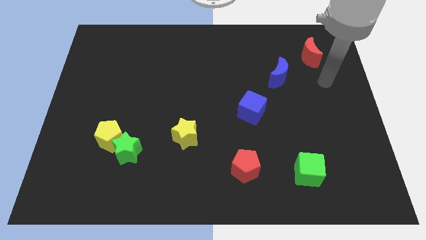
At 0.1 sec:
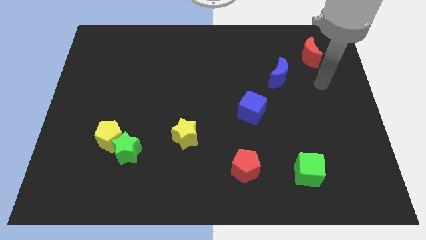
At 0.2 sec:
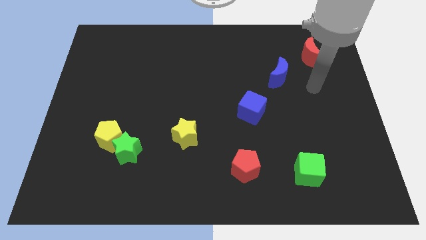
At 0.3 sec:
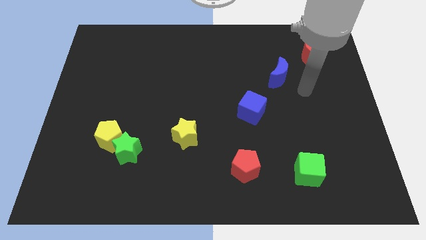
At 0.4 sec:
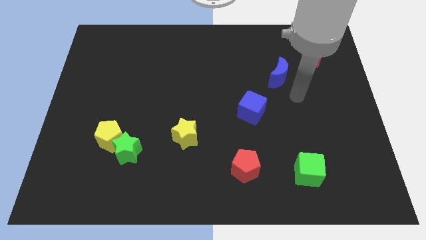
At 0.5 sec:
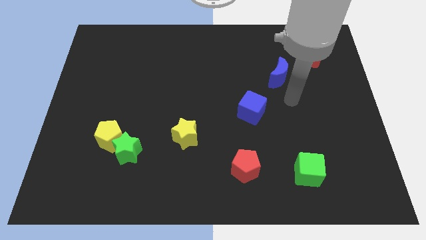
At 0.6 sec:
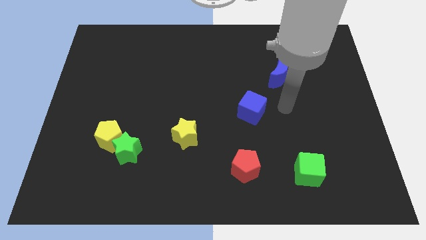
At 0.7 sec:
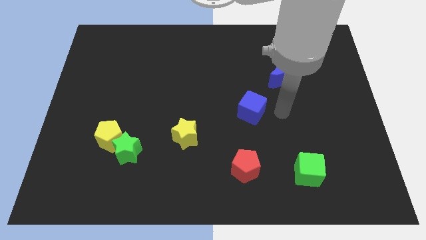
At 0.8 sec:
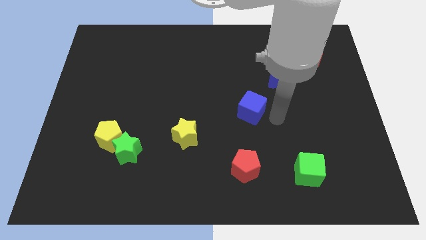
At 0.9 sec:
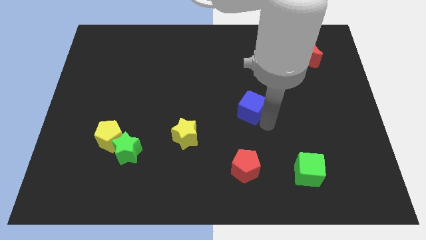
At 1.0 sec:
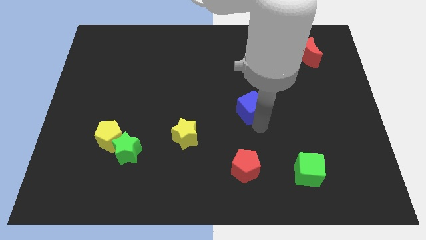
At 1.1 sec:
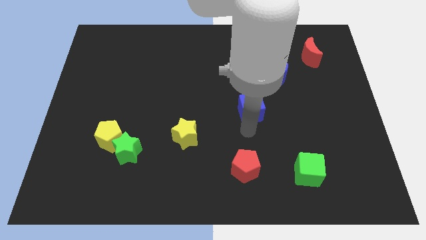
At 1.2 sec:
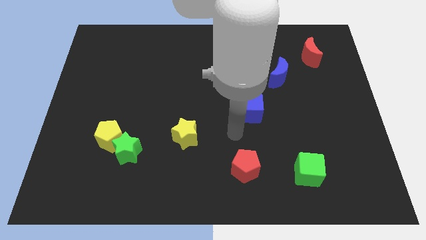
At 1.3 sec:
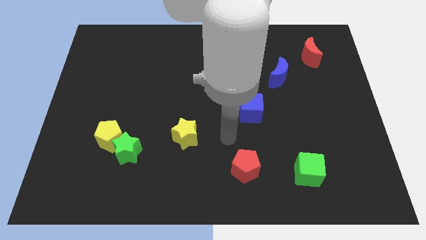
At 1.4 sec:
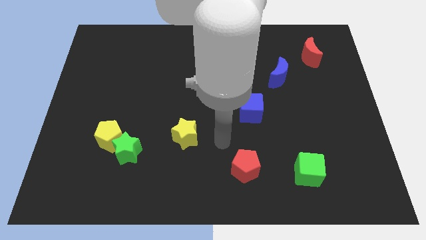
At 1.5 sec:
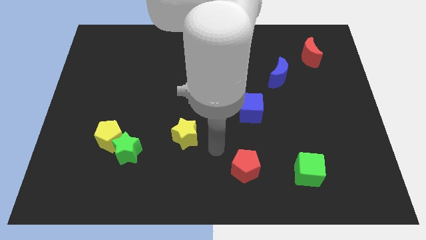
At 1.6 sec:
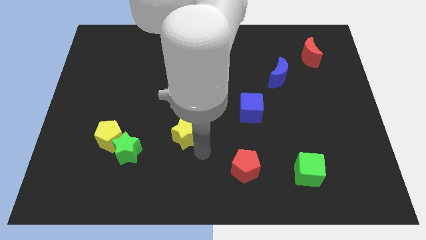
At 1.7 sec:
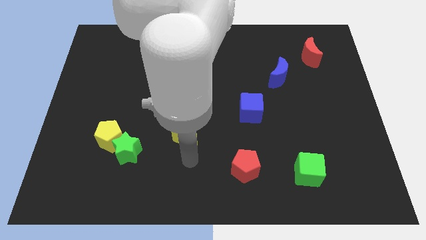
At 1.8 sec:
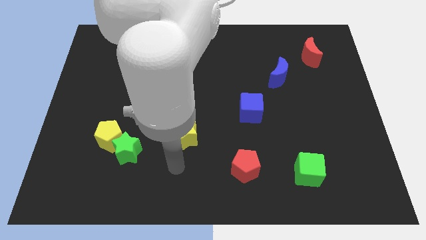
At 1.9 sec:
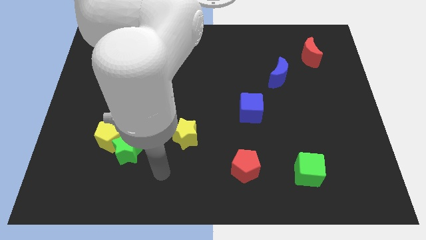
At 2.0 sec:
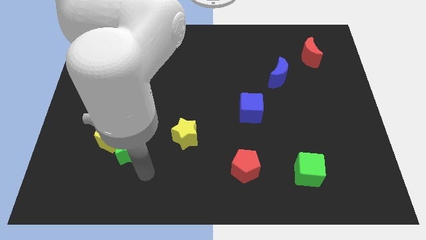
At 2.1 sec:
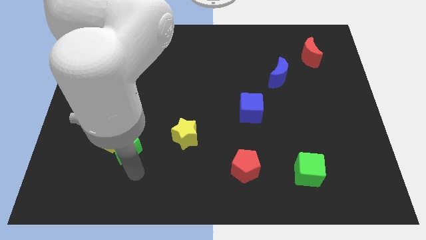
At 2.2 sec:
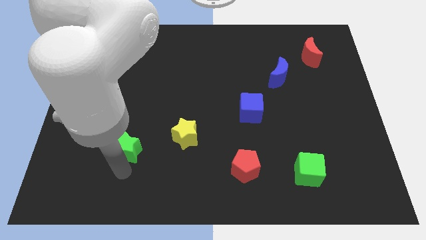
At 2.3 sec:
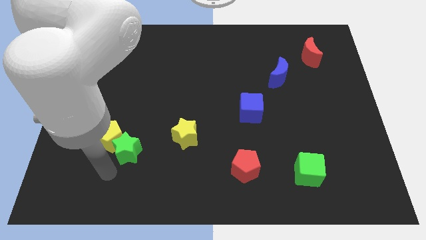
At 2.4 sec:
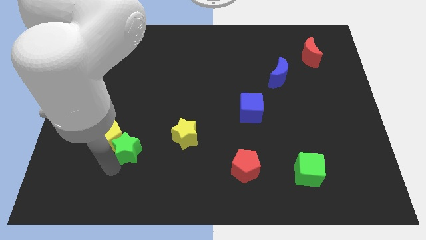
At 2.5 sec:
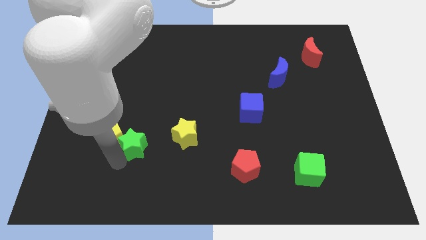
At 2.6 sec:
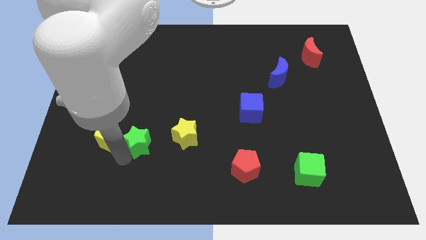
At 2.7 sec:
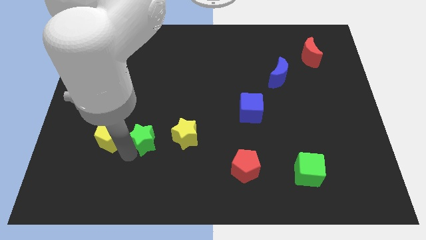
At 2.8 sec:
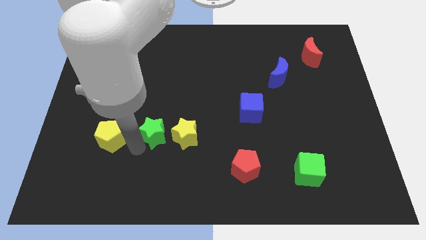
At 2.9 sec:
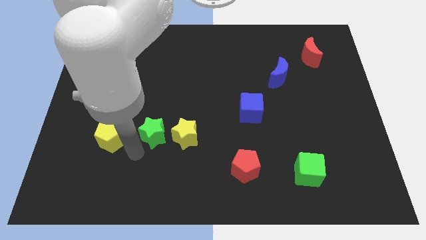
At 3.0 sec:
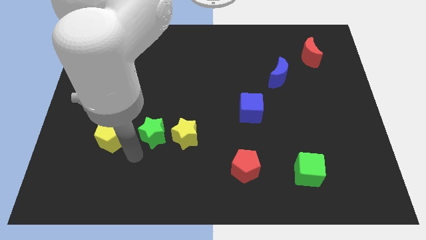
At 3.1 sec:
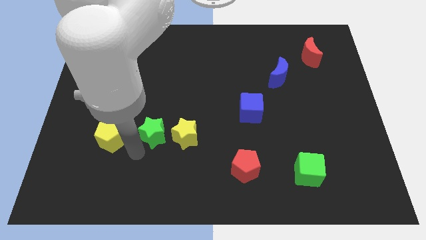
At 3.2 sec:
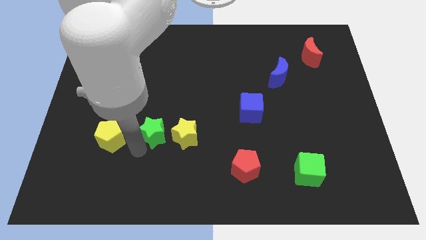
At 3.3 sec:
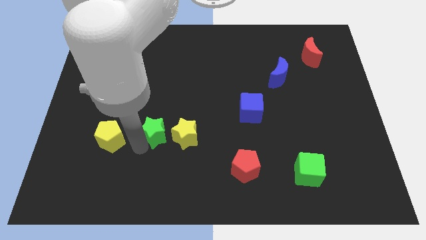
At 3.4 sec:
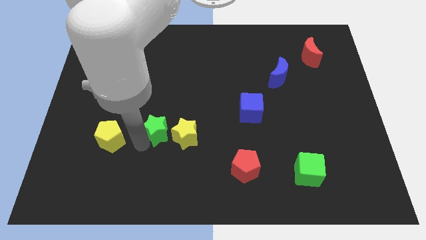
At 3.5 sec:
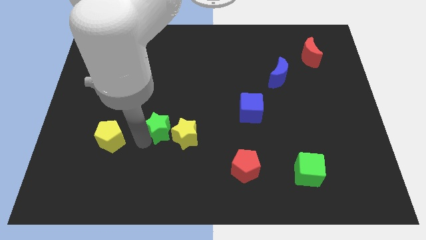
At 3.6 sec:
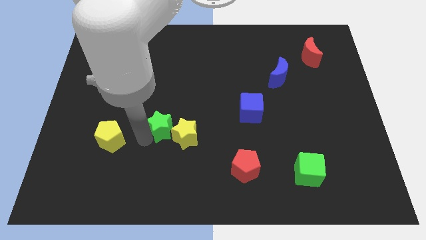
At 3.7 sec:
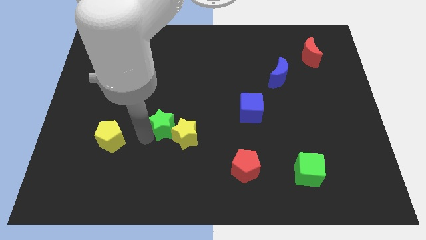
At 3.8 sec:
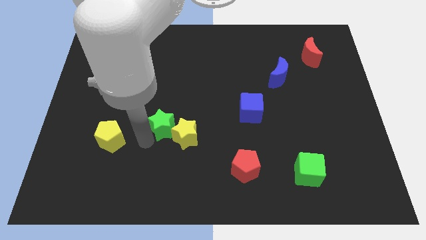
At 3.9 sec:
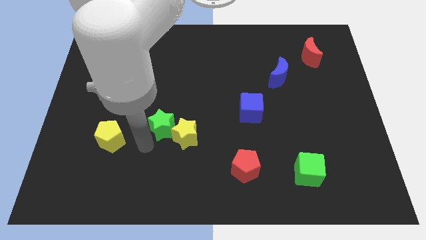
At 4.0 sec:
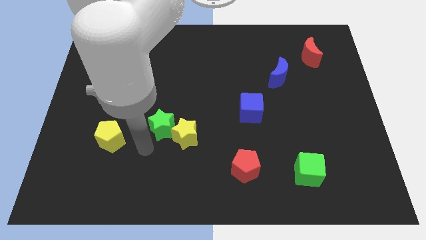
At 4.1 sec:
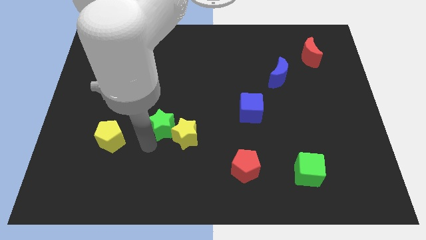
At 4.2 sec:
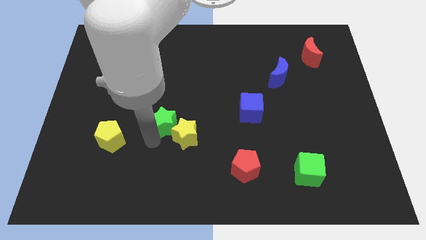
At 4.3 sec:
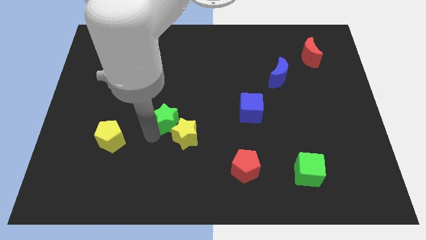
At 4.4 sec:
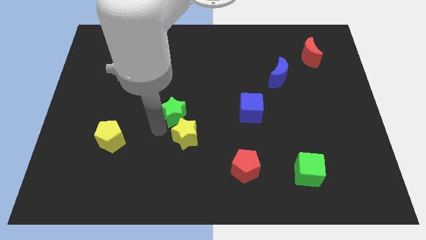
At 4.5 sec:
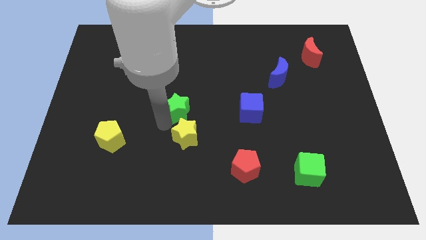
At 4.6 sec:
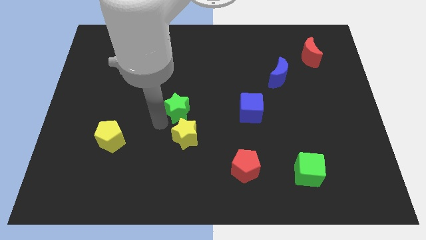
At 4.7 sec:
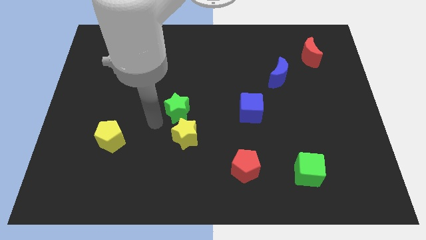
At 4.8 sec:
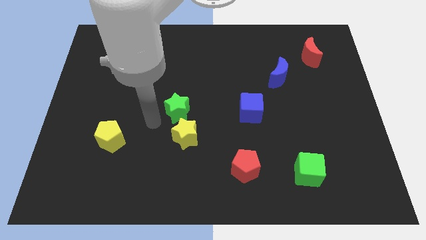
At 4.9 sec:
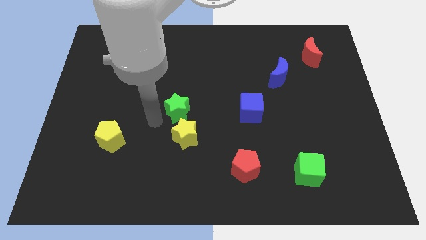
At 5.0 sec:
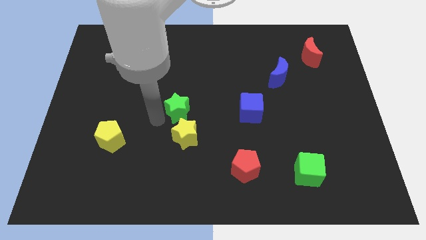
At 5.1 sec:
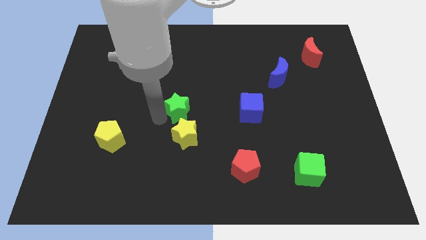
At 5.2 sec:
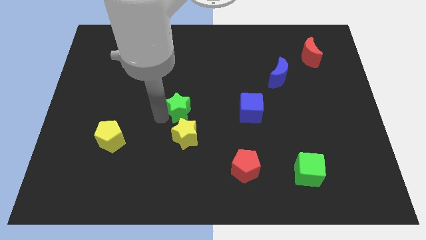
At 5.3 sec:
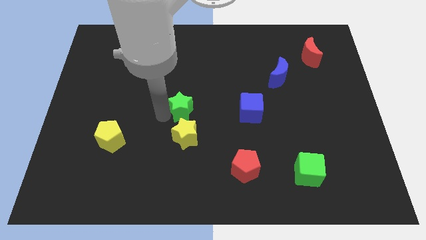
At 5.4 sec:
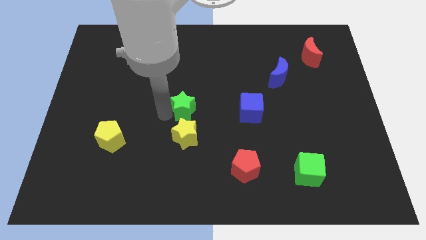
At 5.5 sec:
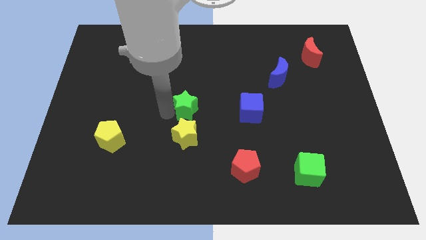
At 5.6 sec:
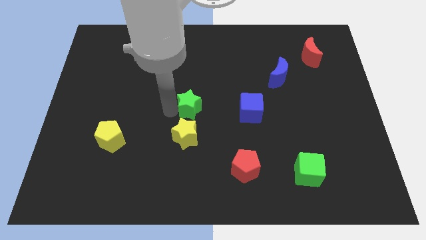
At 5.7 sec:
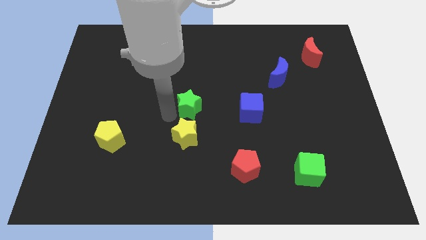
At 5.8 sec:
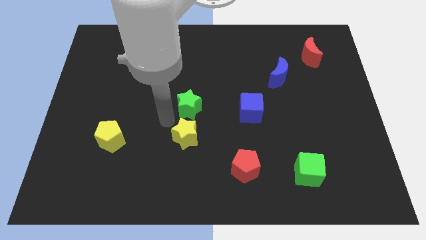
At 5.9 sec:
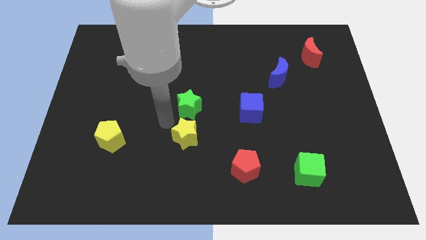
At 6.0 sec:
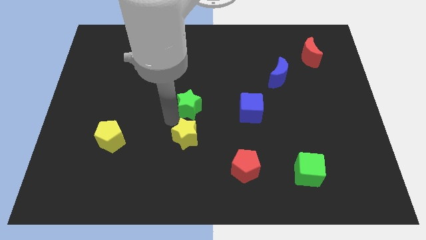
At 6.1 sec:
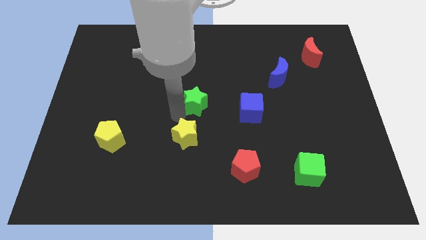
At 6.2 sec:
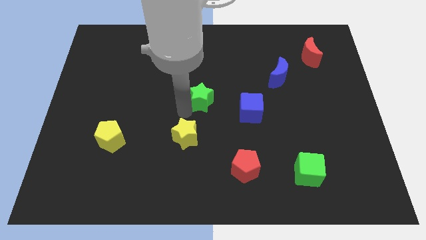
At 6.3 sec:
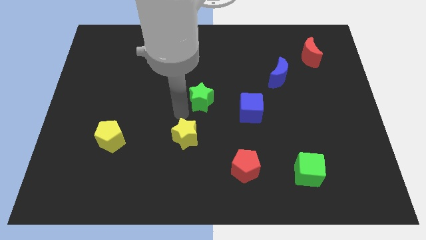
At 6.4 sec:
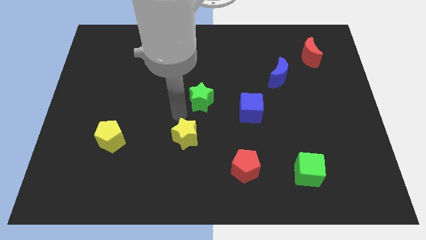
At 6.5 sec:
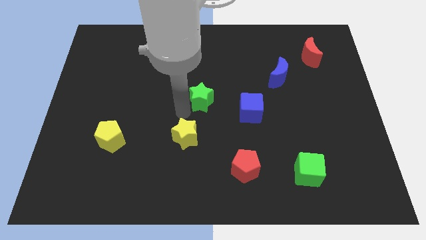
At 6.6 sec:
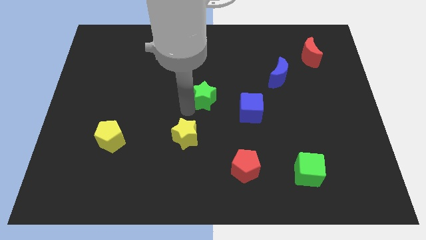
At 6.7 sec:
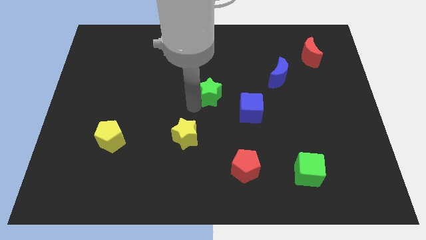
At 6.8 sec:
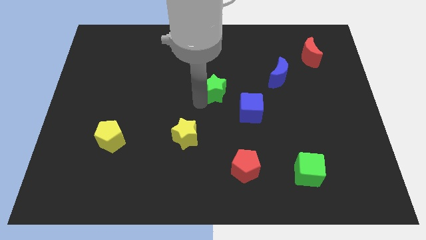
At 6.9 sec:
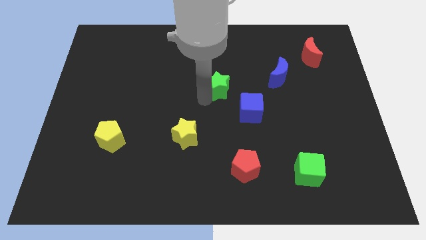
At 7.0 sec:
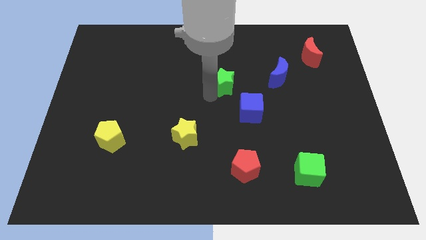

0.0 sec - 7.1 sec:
slide the green star to the left side of the blue moon
